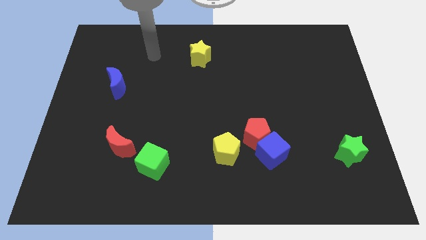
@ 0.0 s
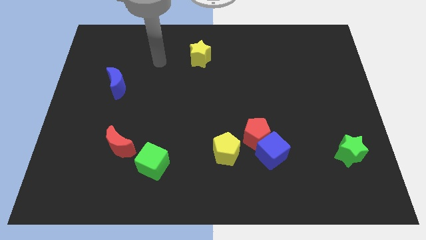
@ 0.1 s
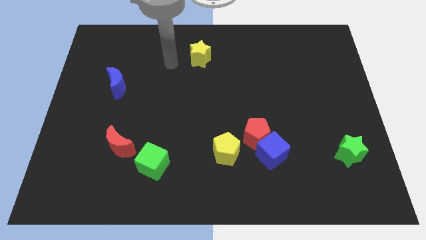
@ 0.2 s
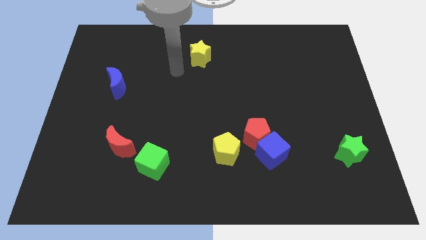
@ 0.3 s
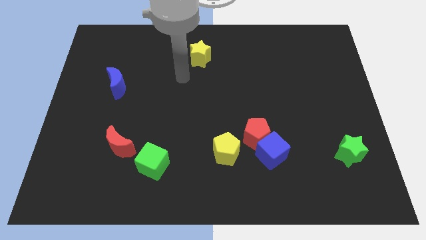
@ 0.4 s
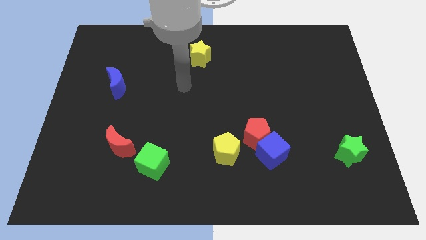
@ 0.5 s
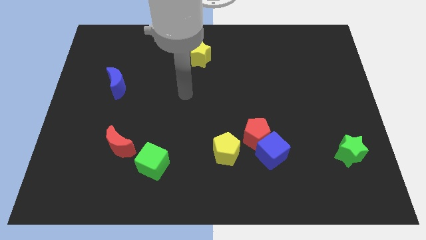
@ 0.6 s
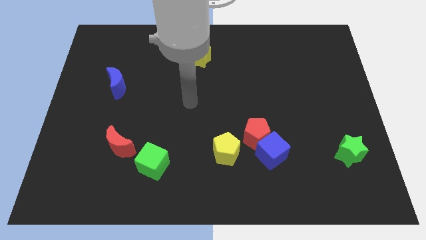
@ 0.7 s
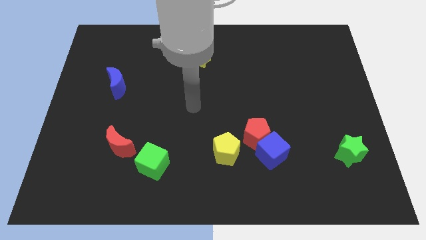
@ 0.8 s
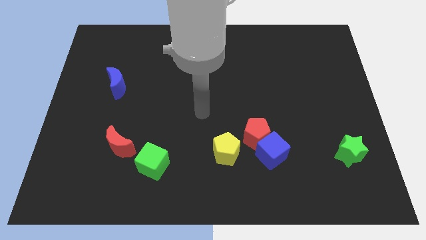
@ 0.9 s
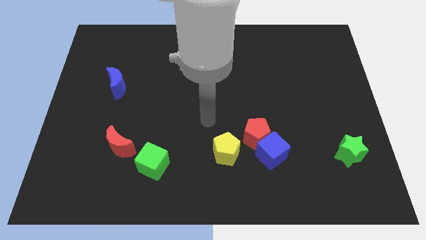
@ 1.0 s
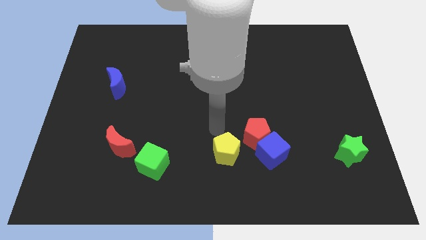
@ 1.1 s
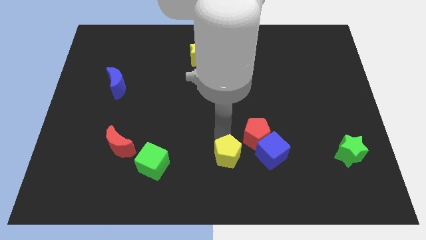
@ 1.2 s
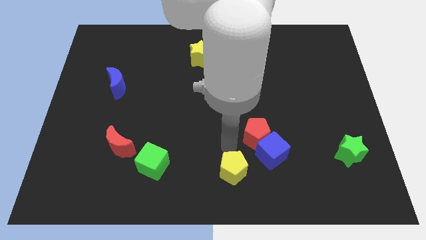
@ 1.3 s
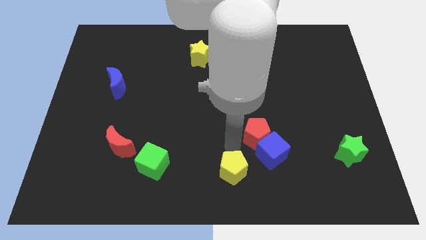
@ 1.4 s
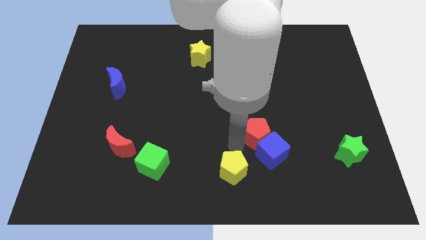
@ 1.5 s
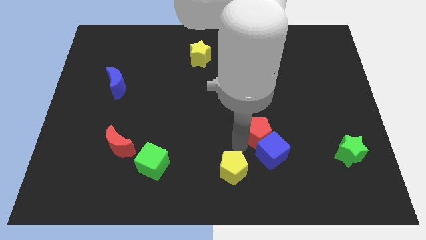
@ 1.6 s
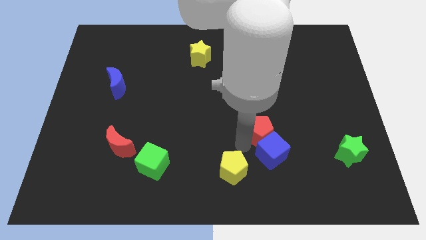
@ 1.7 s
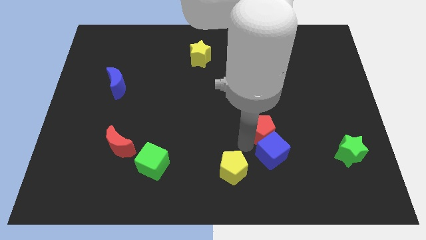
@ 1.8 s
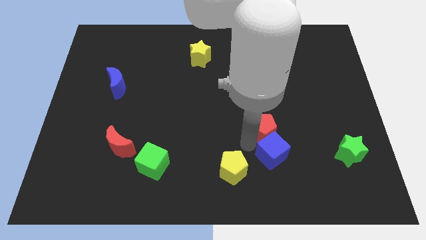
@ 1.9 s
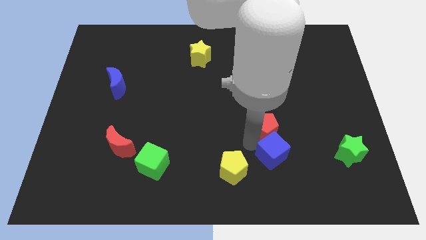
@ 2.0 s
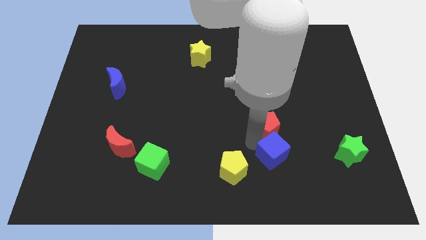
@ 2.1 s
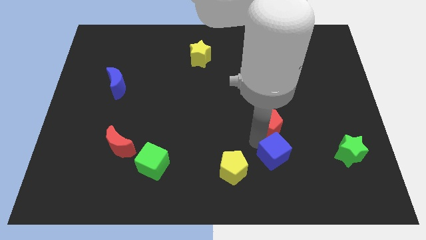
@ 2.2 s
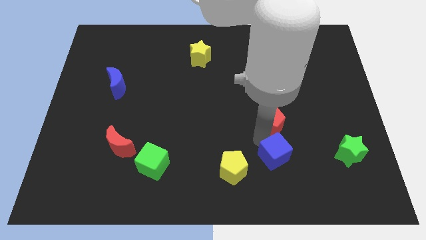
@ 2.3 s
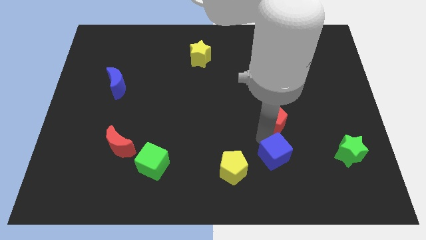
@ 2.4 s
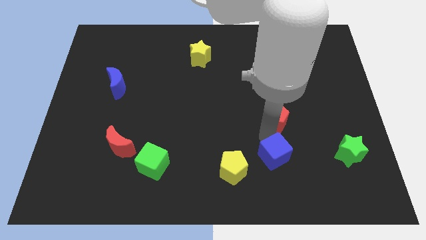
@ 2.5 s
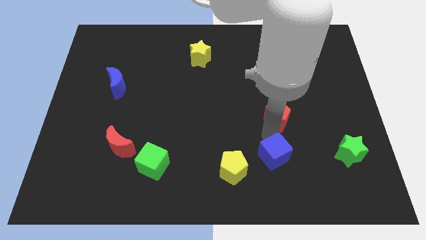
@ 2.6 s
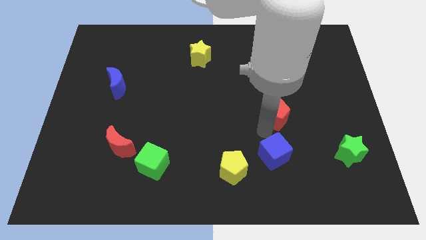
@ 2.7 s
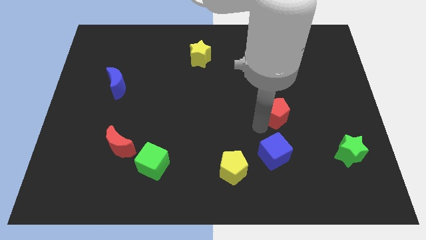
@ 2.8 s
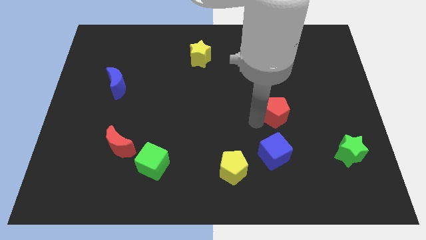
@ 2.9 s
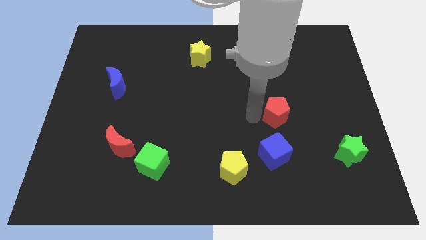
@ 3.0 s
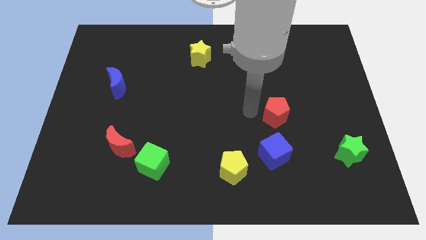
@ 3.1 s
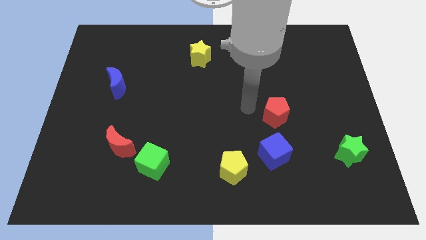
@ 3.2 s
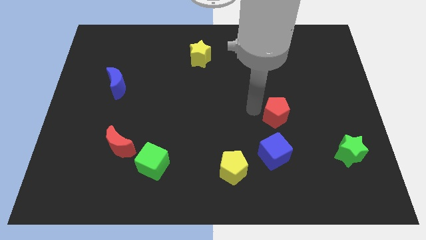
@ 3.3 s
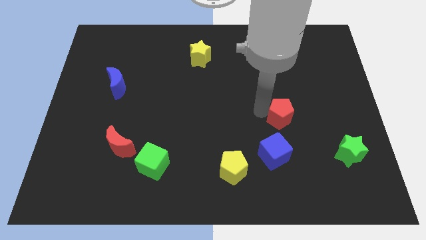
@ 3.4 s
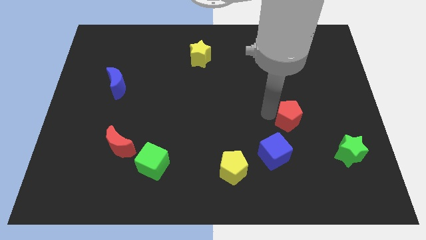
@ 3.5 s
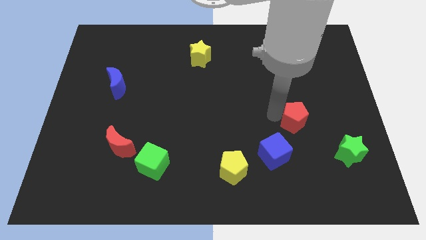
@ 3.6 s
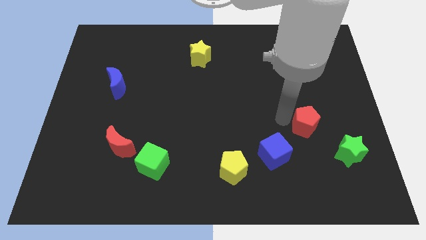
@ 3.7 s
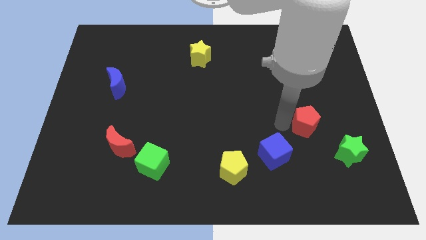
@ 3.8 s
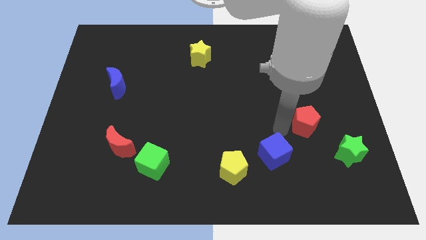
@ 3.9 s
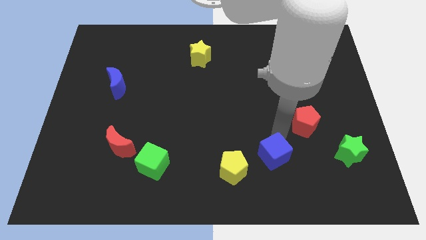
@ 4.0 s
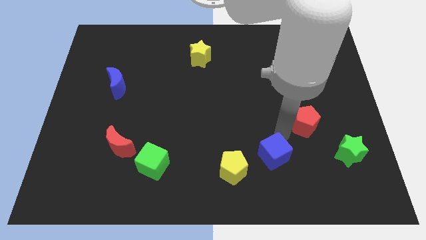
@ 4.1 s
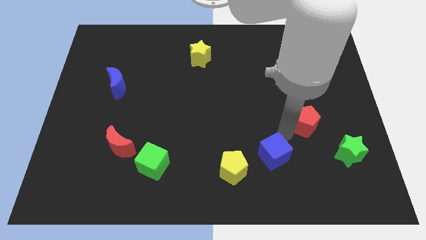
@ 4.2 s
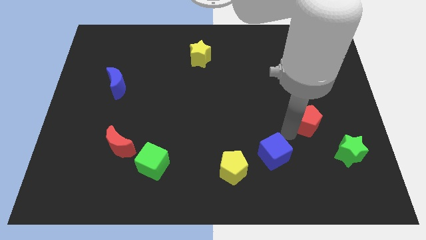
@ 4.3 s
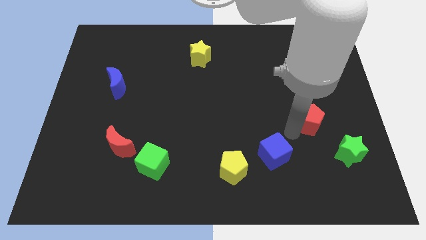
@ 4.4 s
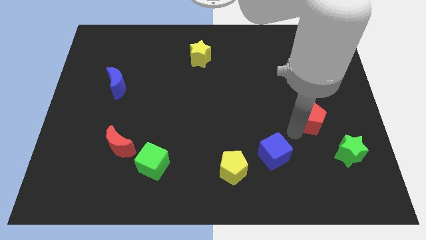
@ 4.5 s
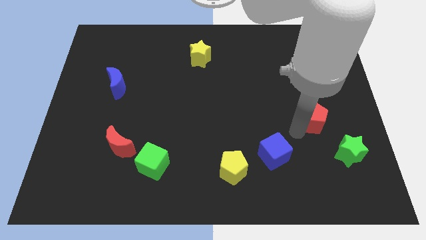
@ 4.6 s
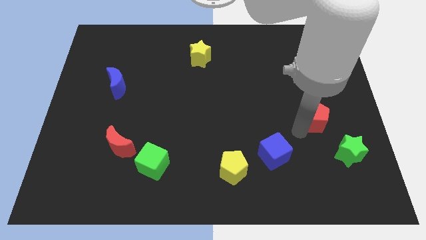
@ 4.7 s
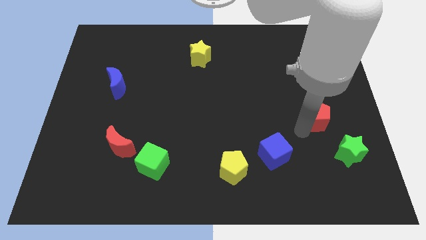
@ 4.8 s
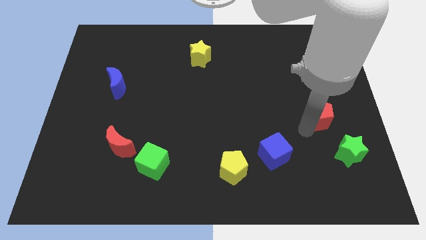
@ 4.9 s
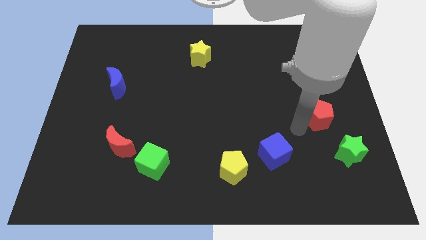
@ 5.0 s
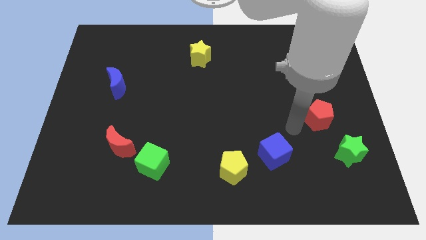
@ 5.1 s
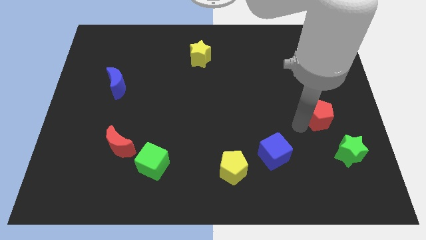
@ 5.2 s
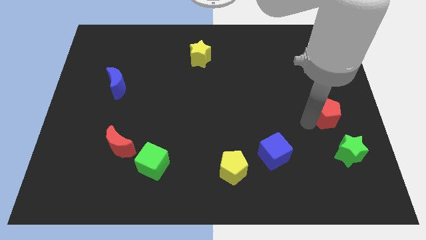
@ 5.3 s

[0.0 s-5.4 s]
push the red pentagon to the right side of the board

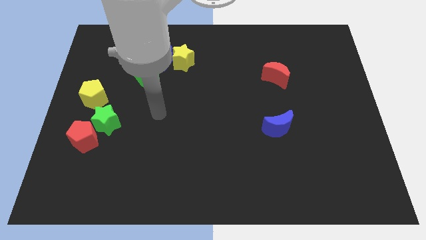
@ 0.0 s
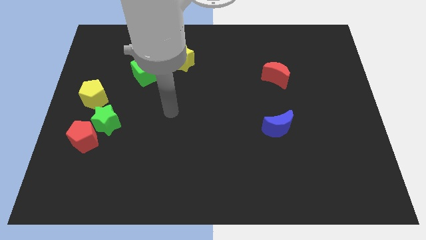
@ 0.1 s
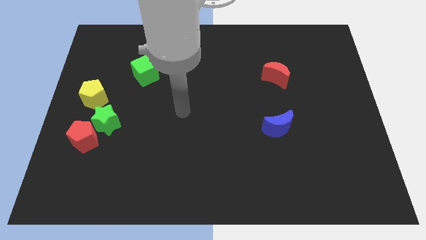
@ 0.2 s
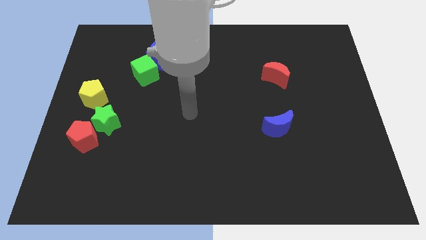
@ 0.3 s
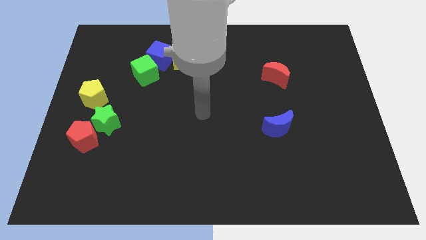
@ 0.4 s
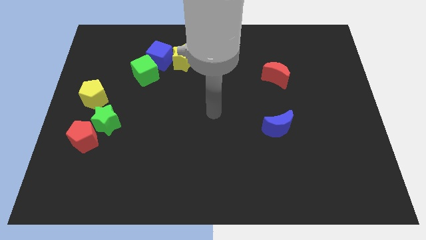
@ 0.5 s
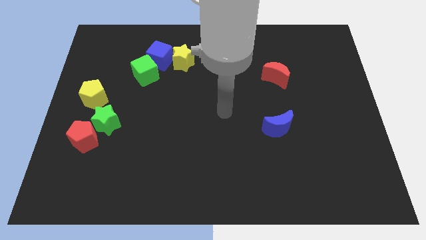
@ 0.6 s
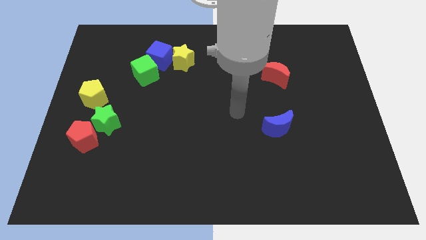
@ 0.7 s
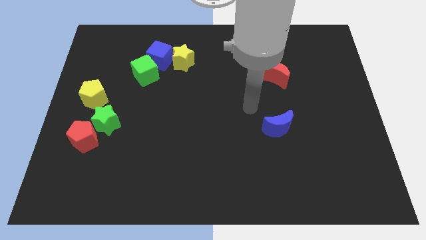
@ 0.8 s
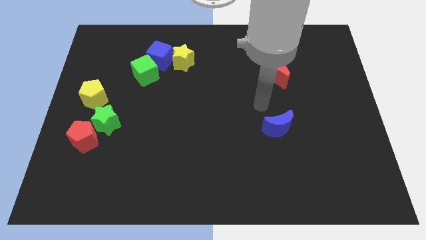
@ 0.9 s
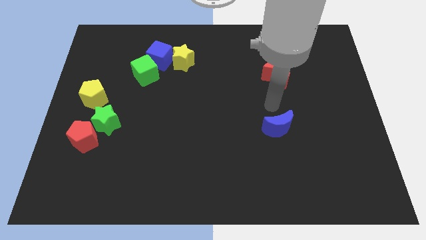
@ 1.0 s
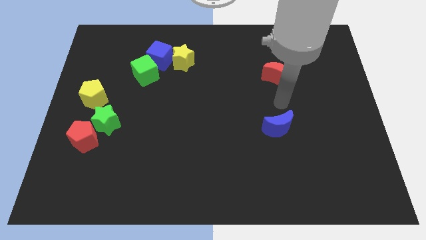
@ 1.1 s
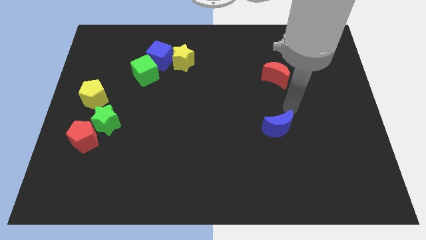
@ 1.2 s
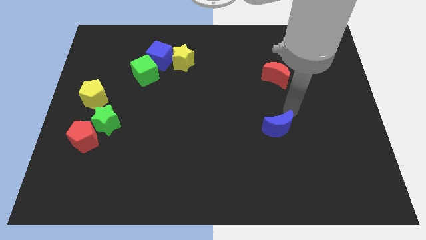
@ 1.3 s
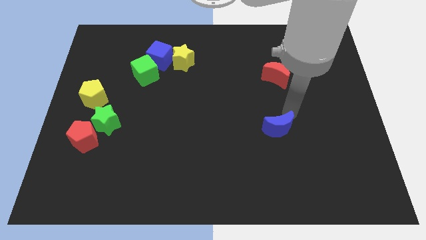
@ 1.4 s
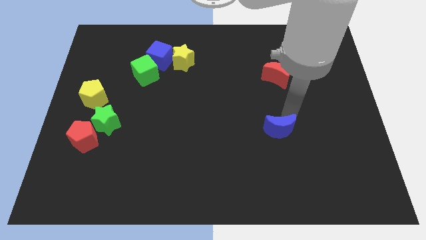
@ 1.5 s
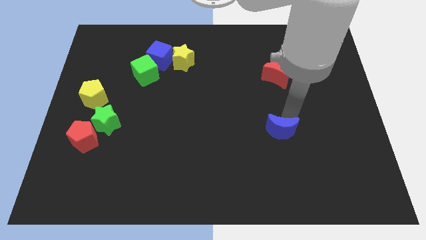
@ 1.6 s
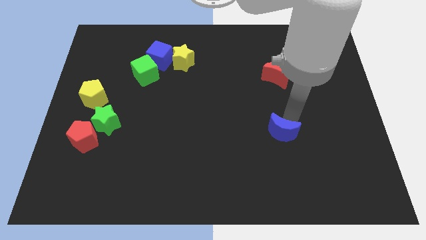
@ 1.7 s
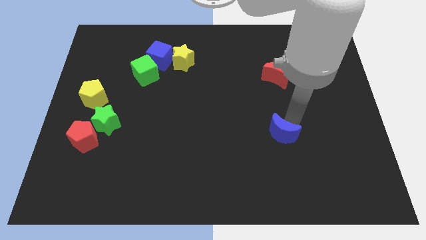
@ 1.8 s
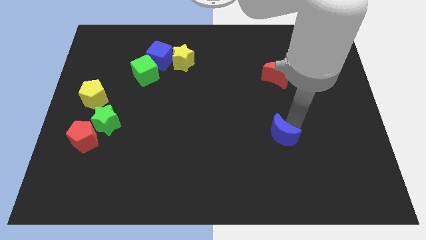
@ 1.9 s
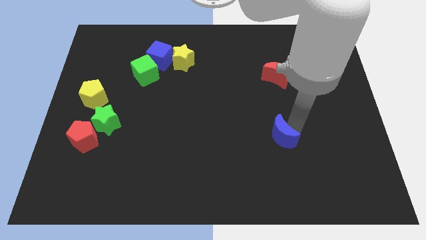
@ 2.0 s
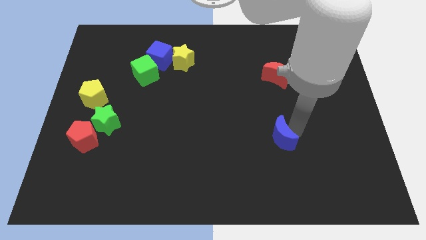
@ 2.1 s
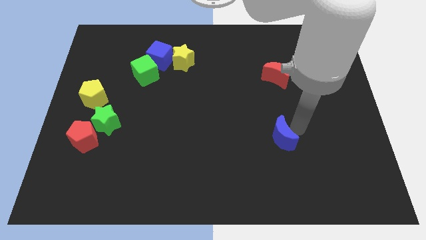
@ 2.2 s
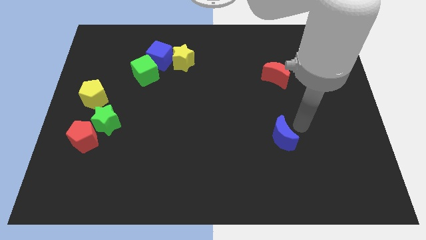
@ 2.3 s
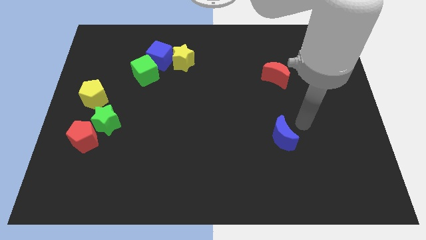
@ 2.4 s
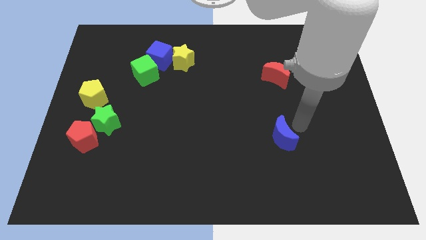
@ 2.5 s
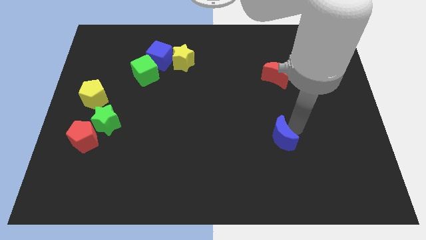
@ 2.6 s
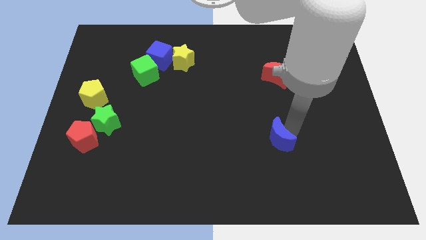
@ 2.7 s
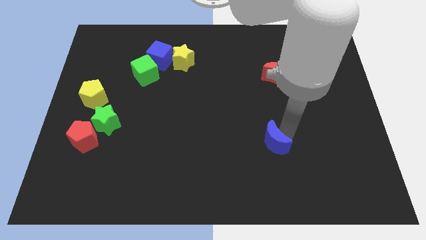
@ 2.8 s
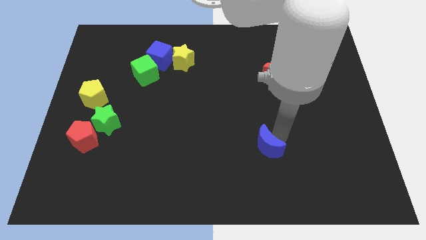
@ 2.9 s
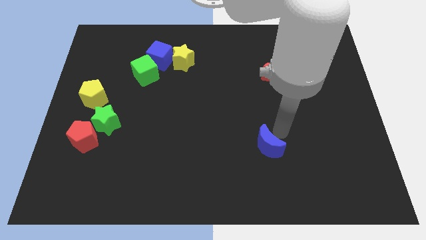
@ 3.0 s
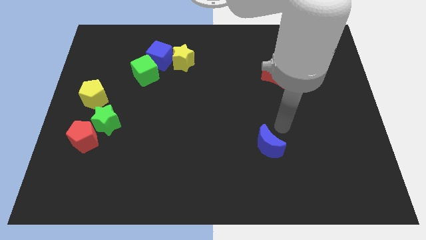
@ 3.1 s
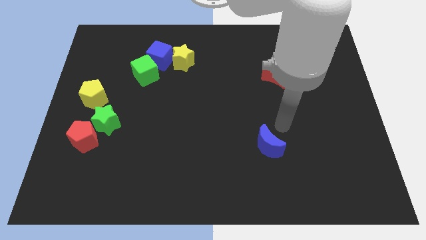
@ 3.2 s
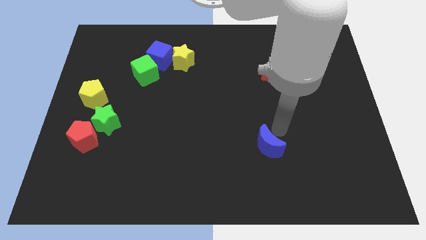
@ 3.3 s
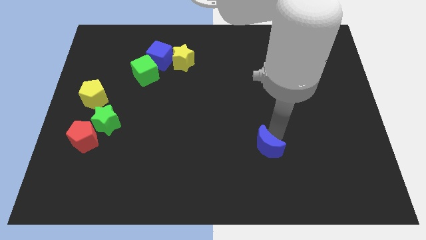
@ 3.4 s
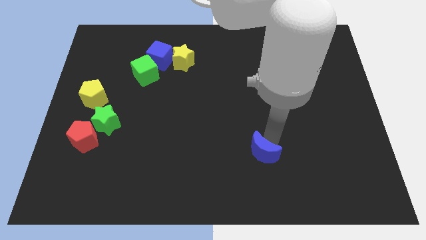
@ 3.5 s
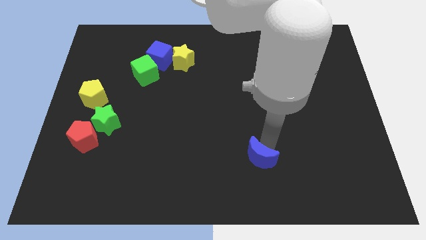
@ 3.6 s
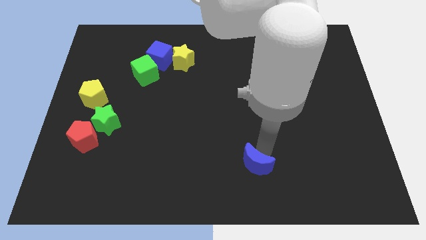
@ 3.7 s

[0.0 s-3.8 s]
push the blue moon to the bottom
